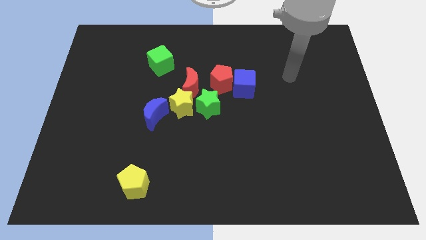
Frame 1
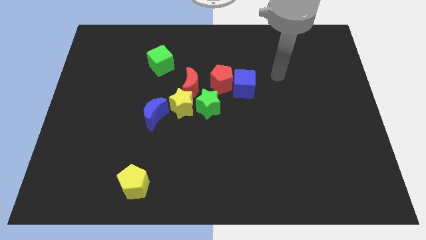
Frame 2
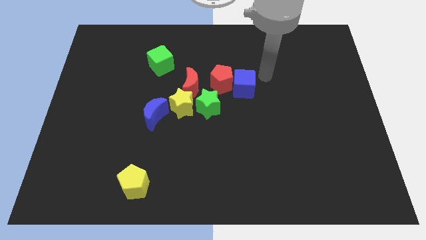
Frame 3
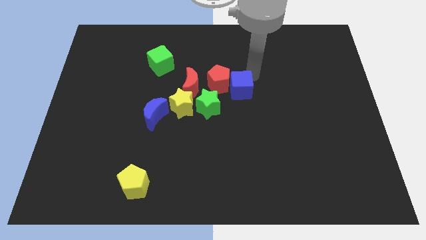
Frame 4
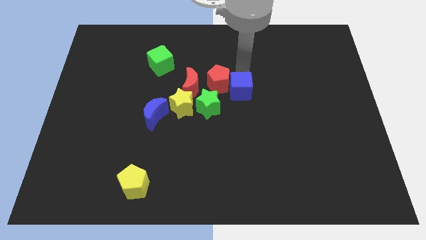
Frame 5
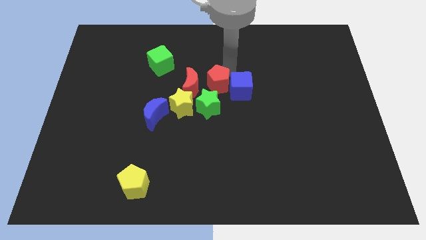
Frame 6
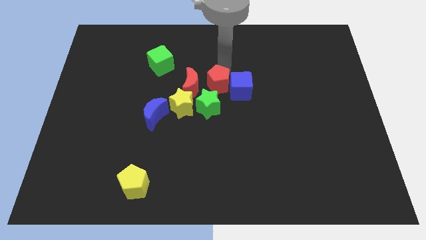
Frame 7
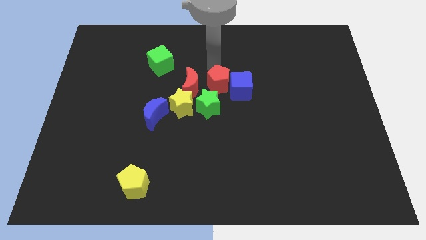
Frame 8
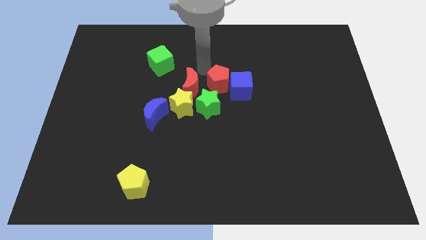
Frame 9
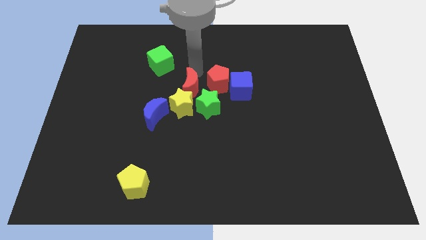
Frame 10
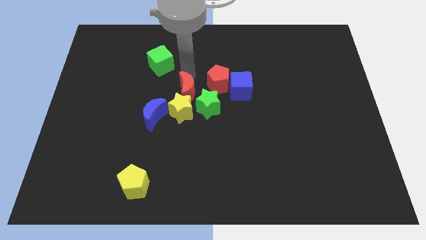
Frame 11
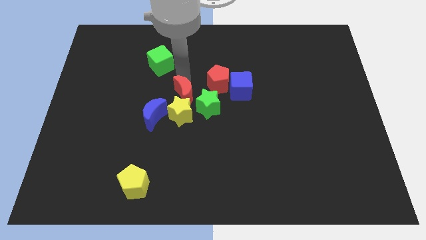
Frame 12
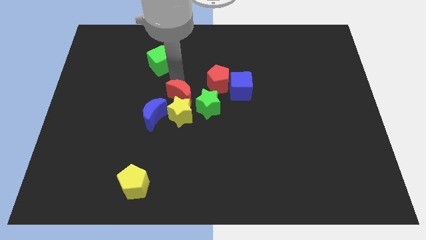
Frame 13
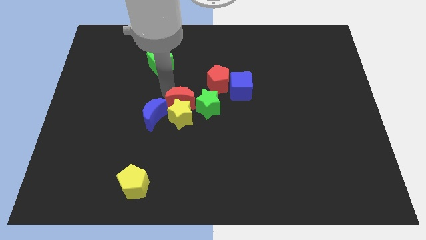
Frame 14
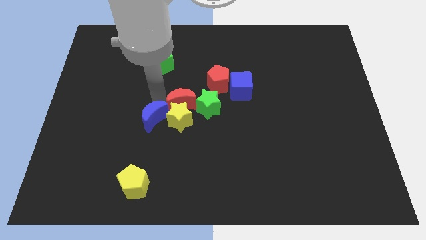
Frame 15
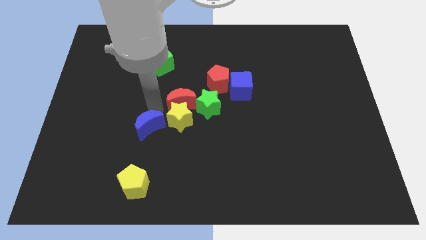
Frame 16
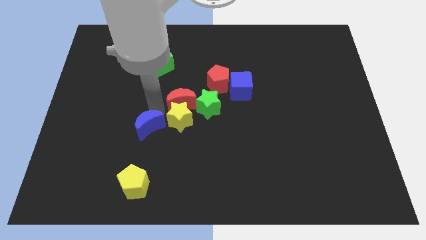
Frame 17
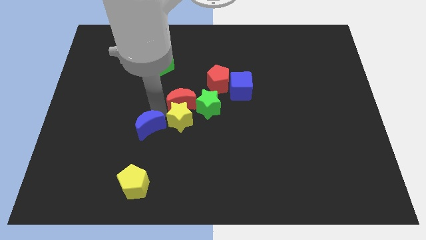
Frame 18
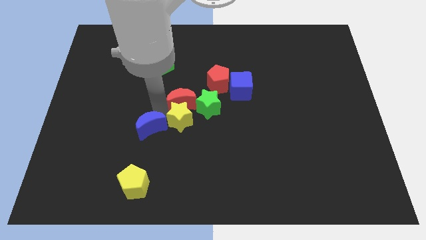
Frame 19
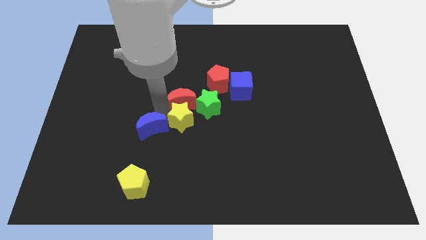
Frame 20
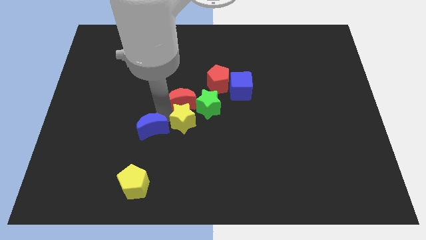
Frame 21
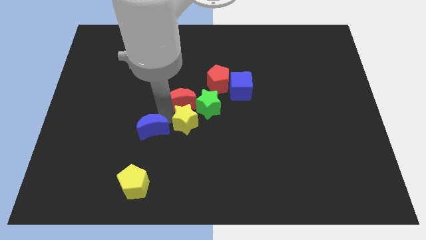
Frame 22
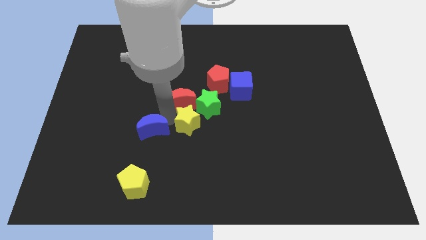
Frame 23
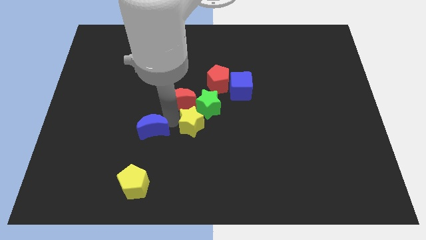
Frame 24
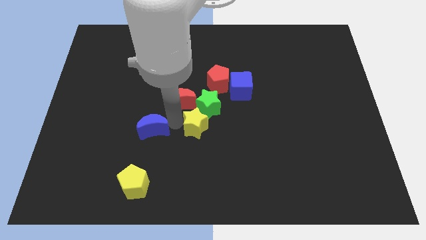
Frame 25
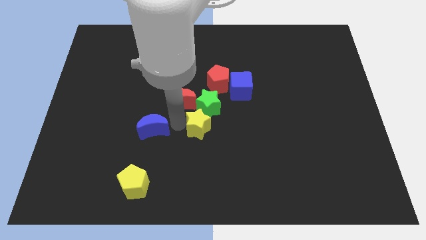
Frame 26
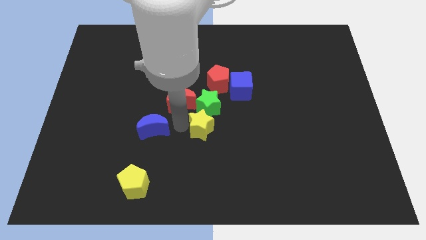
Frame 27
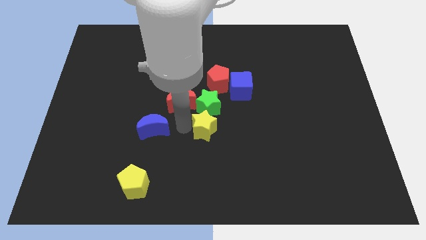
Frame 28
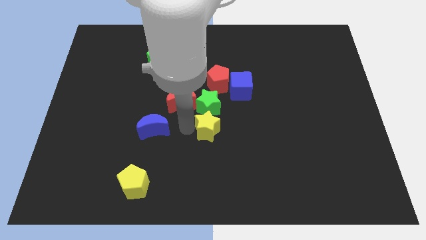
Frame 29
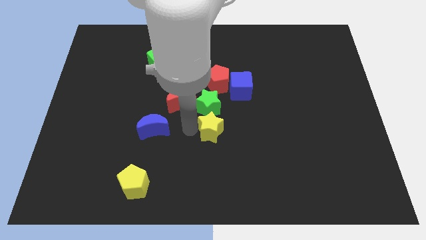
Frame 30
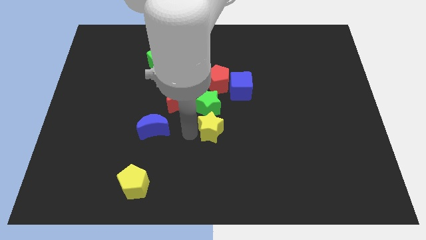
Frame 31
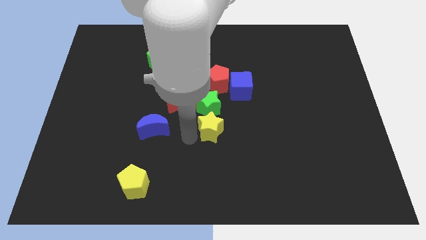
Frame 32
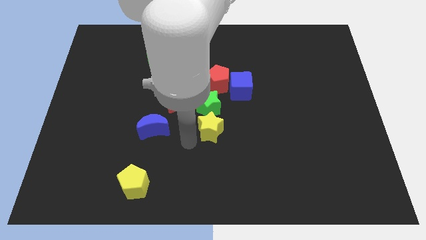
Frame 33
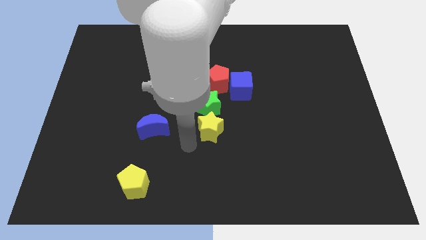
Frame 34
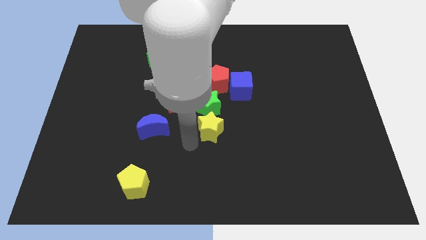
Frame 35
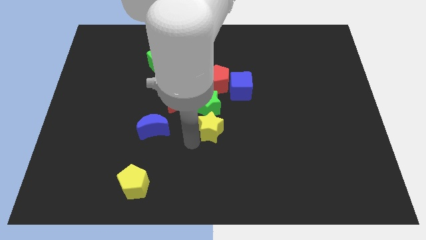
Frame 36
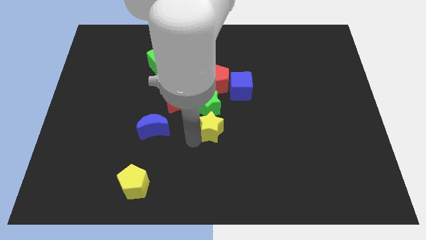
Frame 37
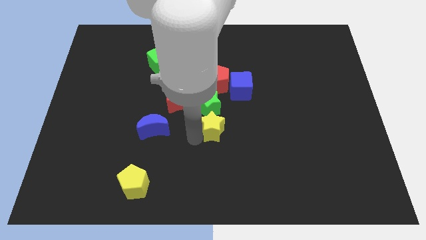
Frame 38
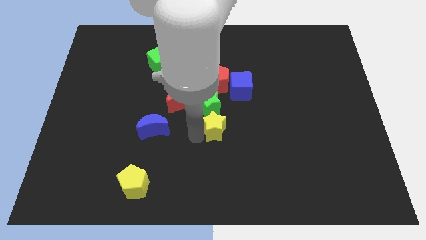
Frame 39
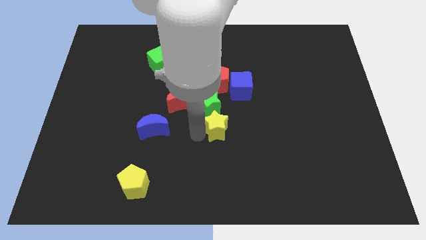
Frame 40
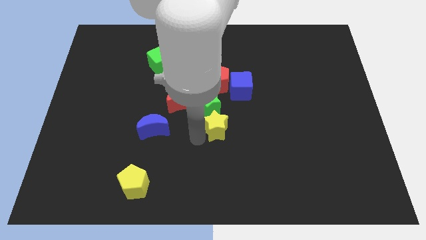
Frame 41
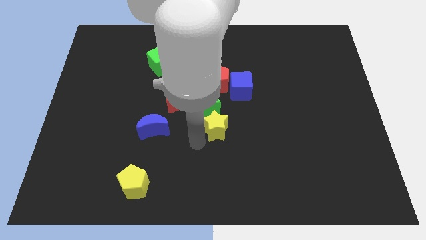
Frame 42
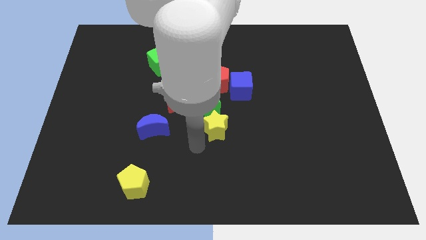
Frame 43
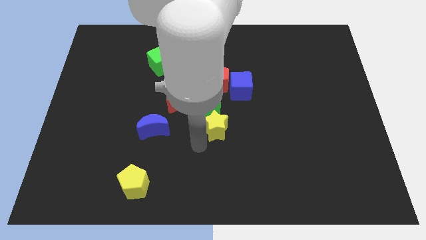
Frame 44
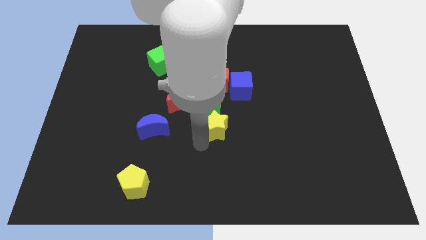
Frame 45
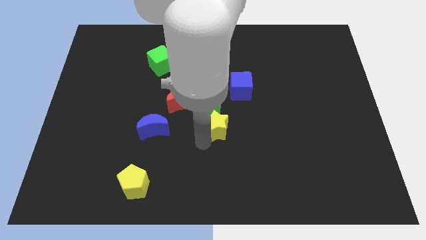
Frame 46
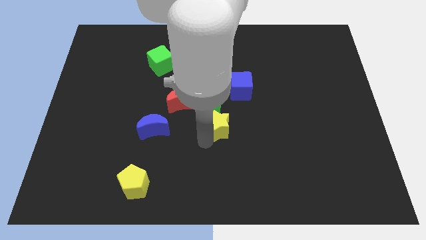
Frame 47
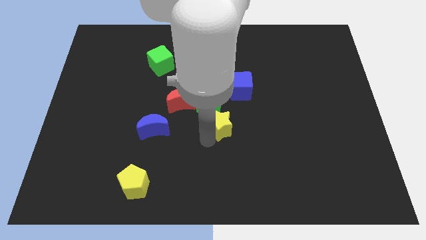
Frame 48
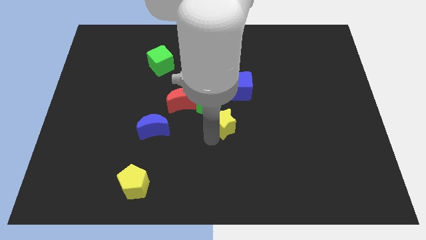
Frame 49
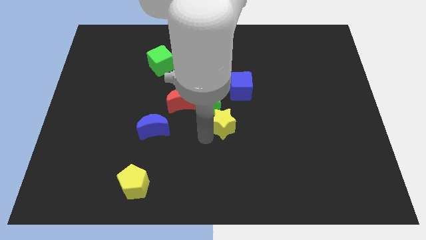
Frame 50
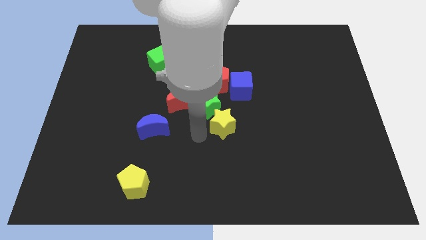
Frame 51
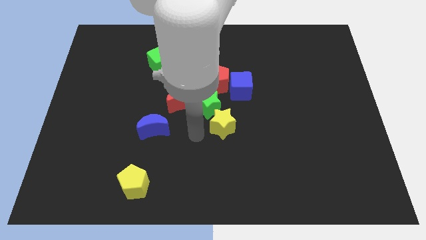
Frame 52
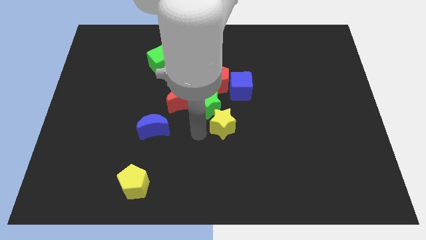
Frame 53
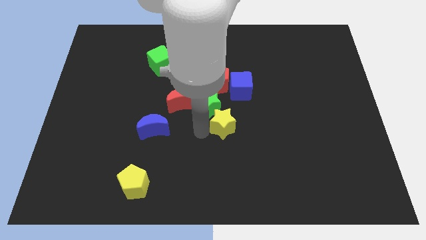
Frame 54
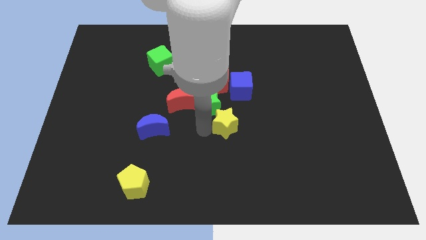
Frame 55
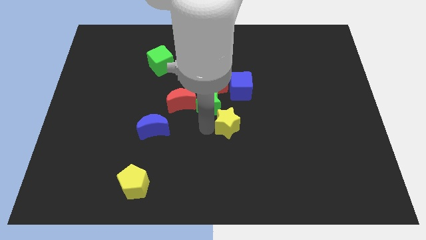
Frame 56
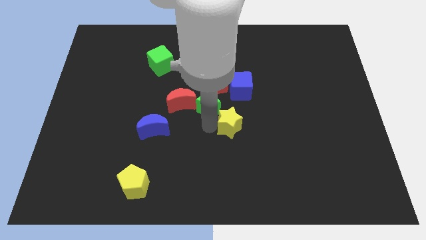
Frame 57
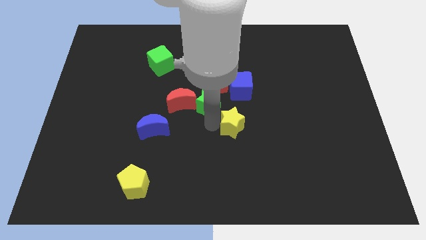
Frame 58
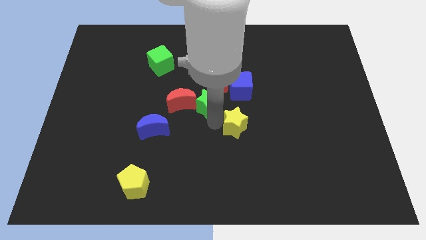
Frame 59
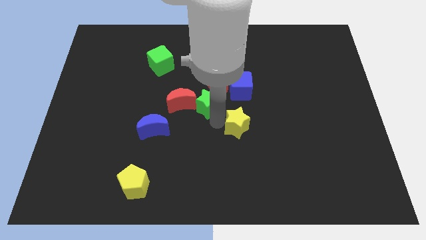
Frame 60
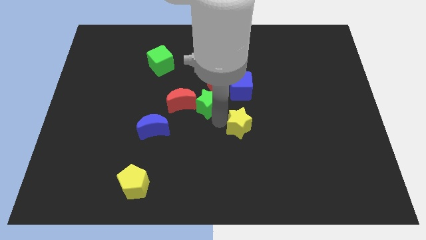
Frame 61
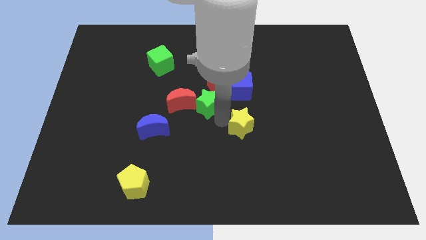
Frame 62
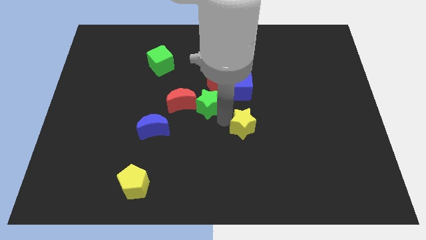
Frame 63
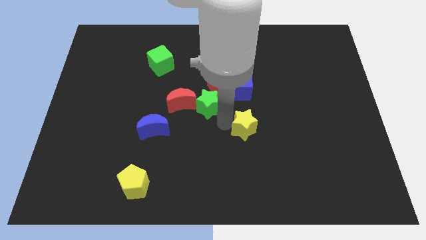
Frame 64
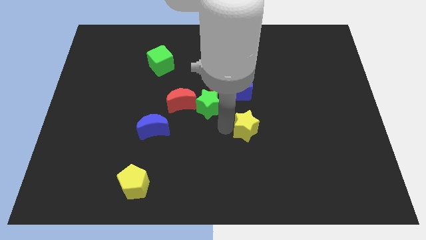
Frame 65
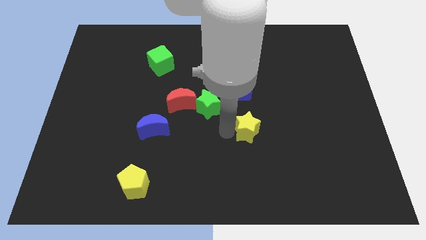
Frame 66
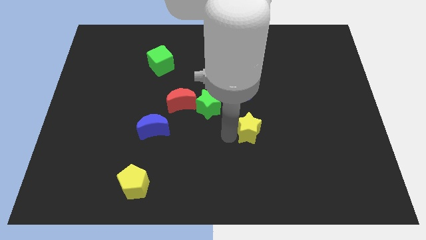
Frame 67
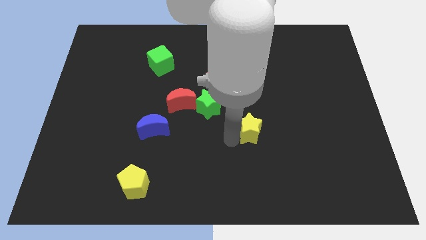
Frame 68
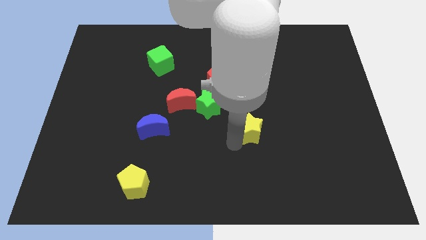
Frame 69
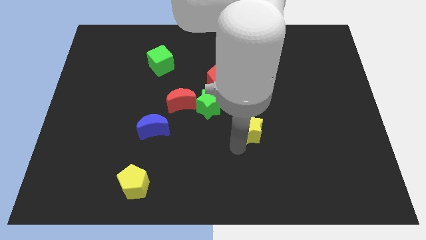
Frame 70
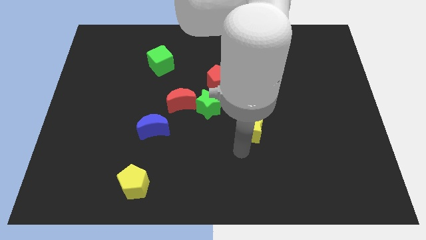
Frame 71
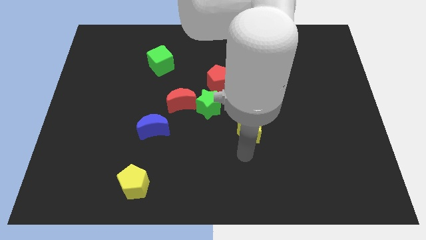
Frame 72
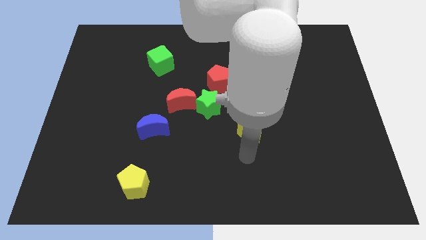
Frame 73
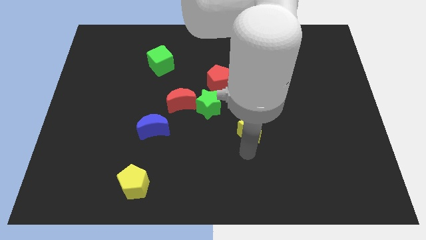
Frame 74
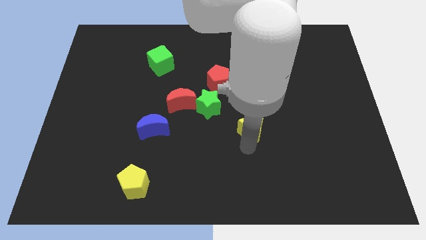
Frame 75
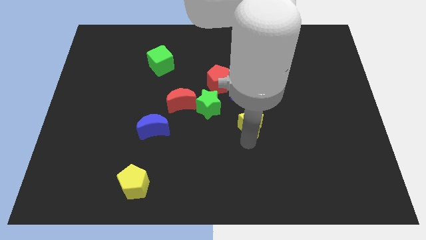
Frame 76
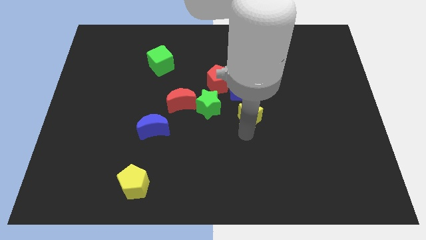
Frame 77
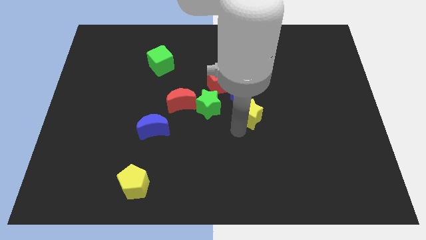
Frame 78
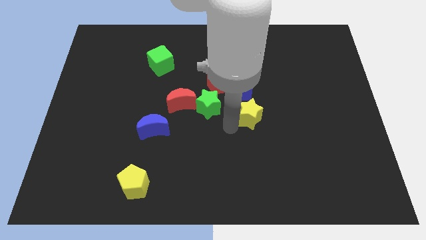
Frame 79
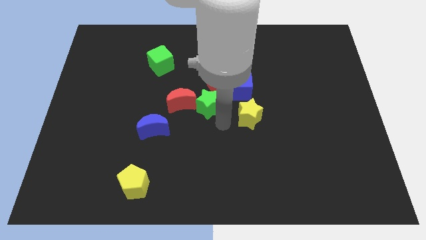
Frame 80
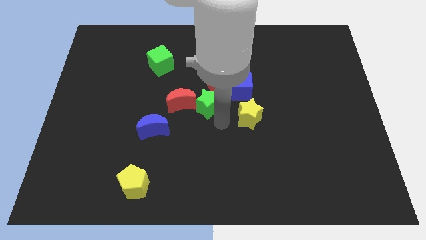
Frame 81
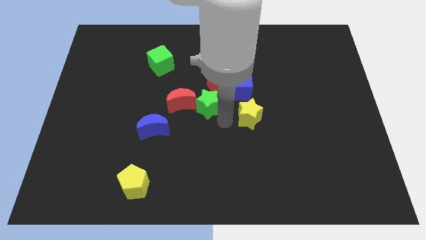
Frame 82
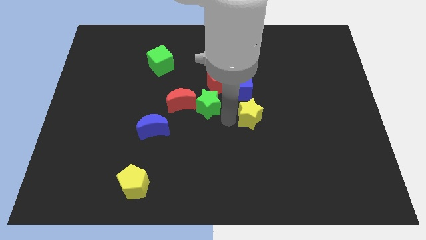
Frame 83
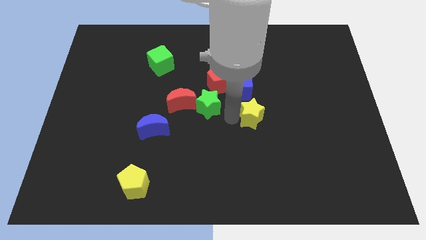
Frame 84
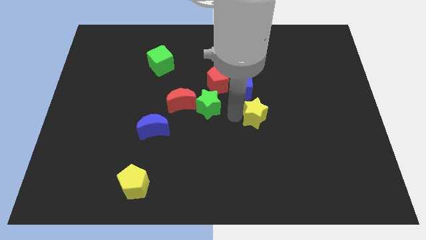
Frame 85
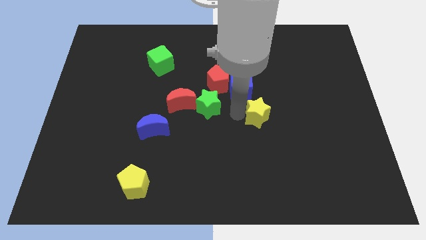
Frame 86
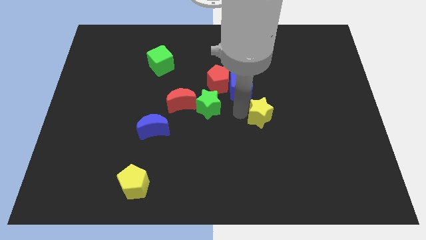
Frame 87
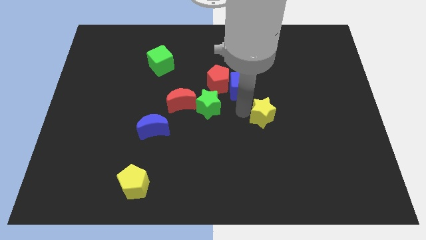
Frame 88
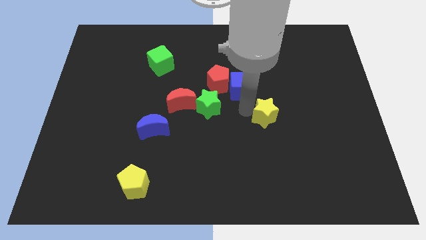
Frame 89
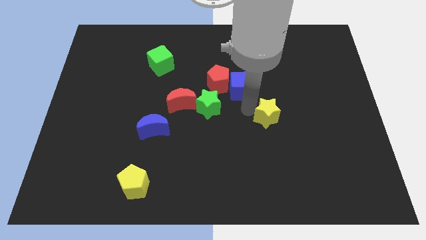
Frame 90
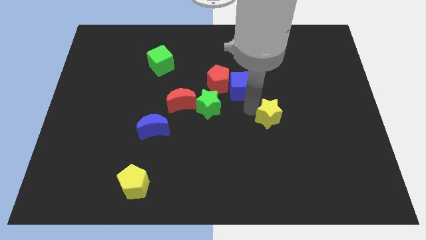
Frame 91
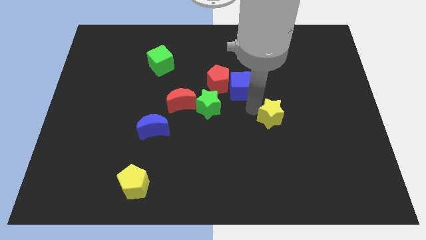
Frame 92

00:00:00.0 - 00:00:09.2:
move the yellow star right
